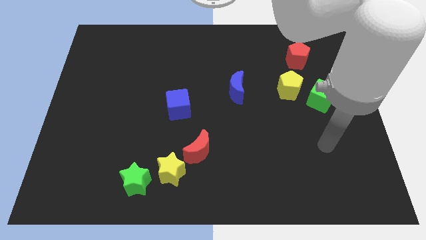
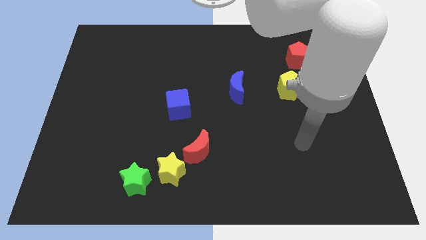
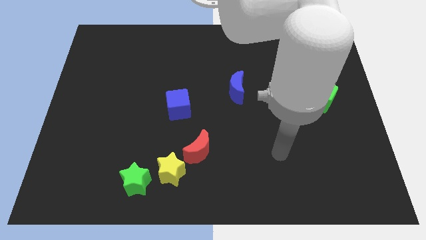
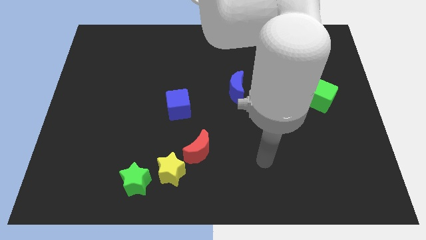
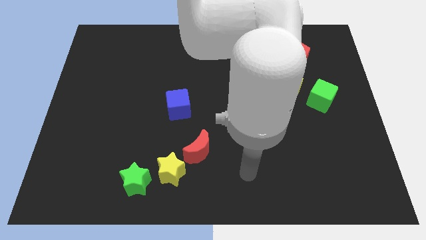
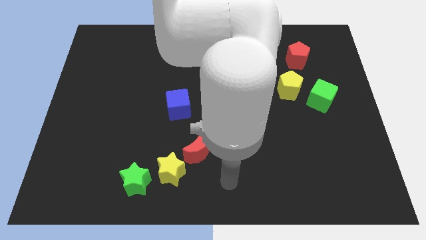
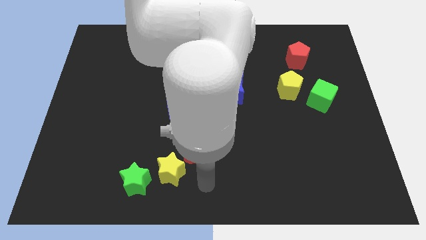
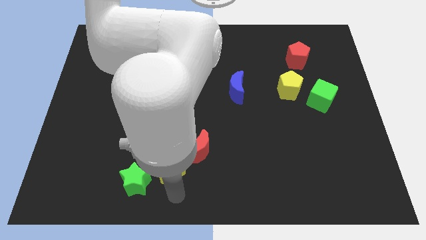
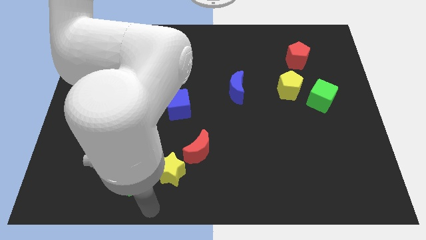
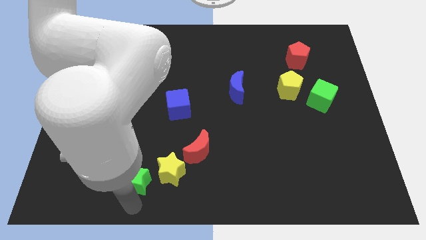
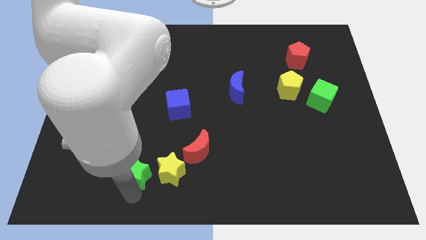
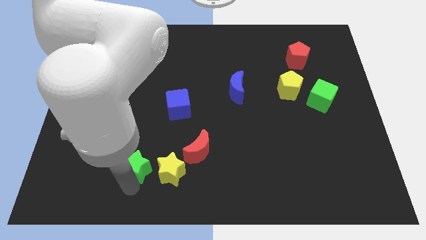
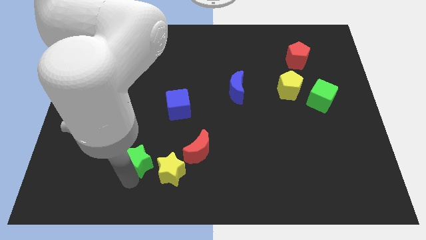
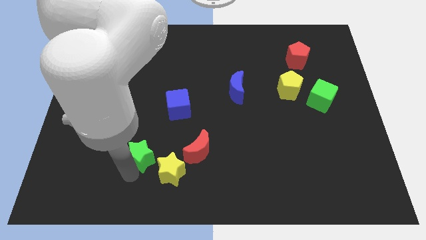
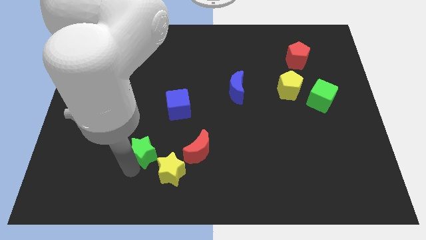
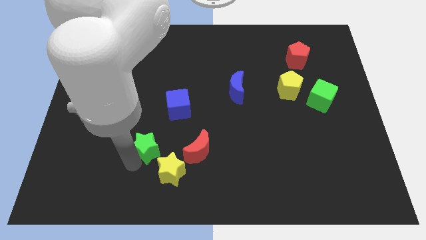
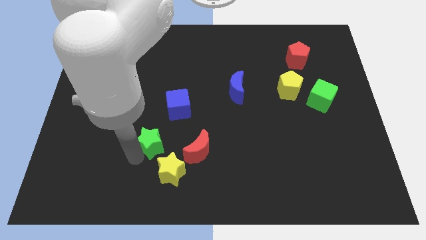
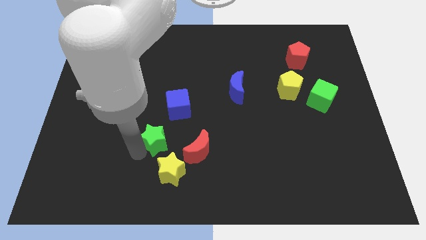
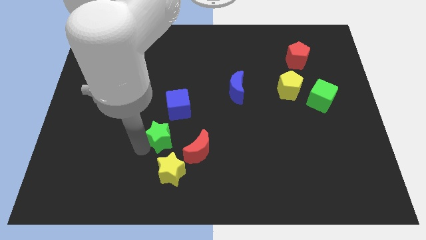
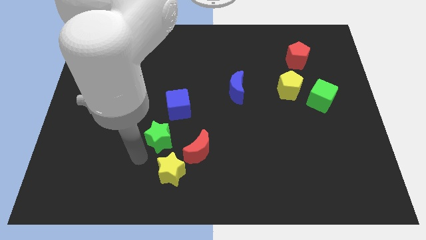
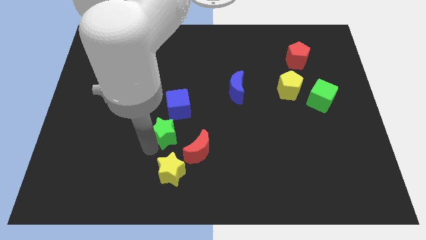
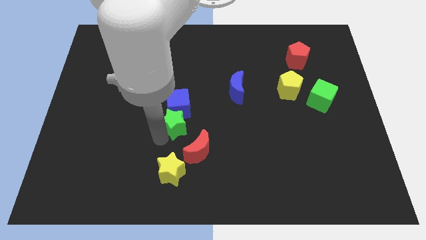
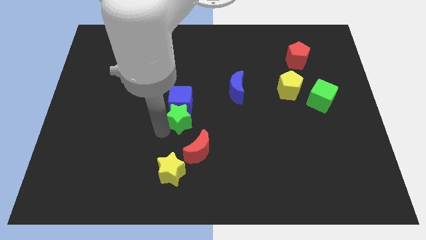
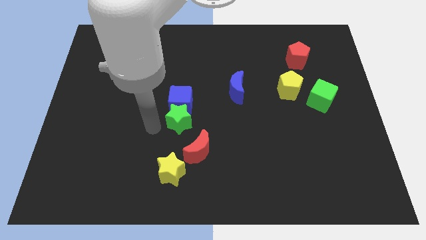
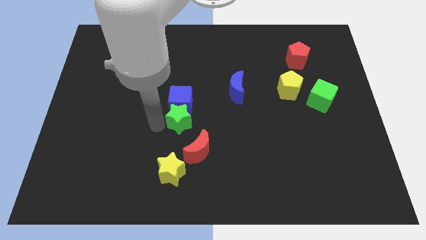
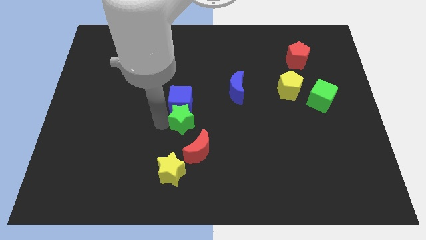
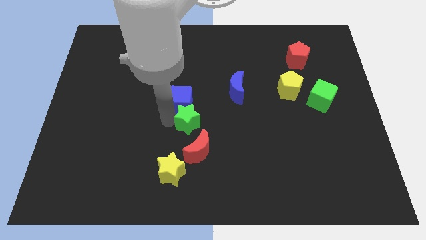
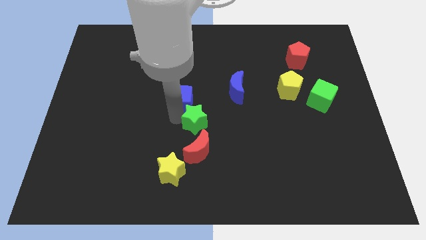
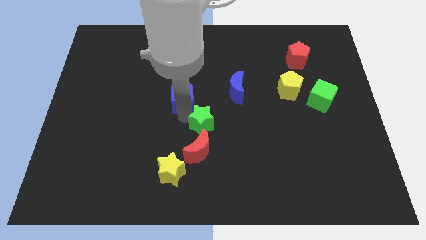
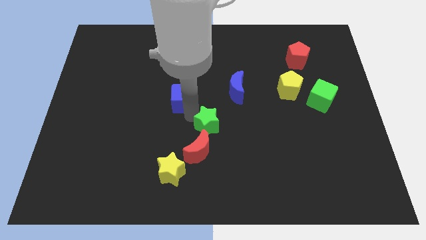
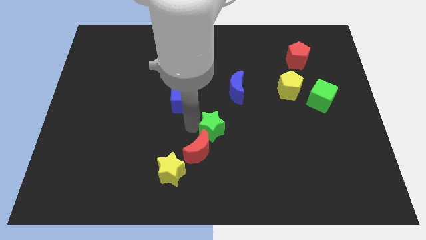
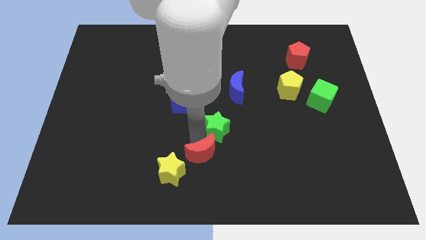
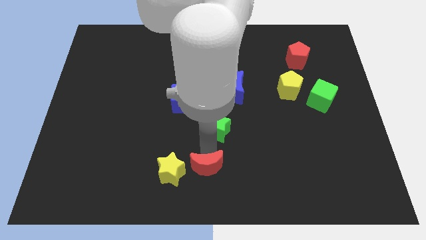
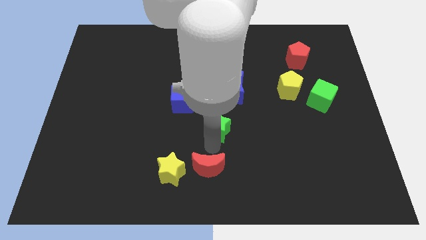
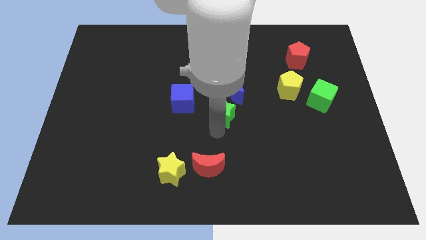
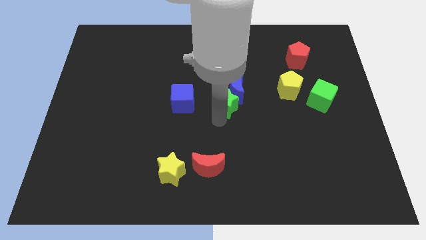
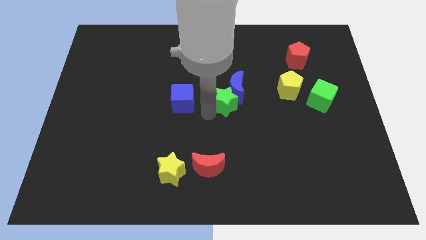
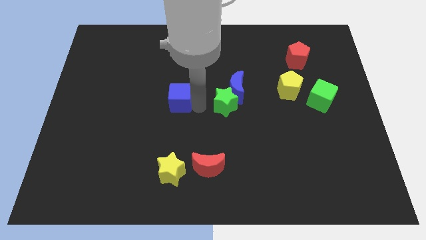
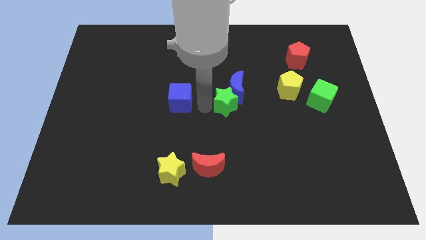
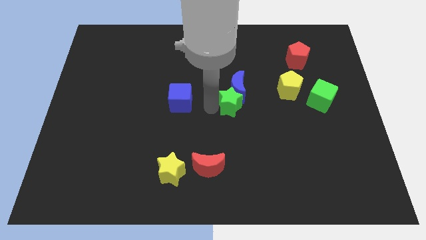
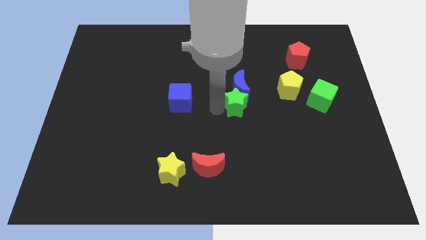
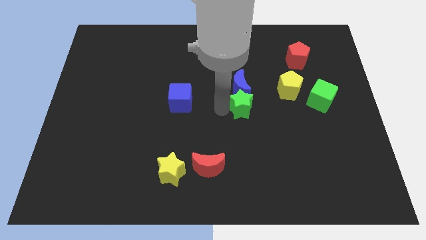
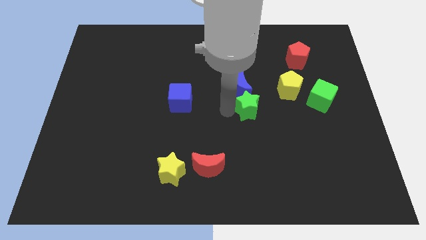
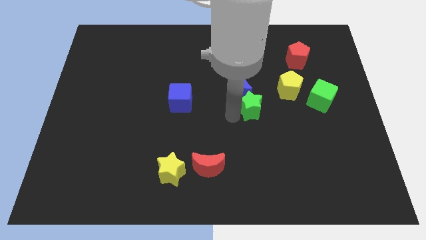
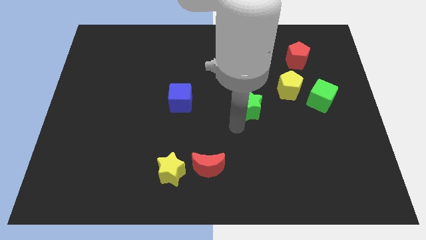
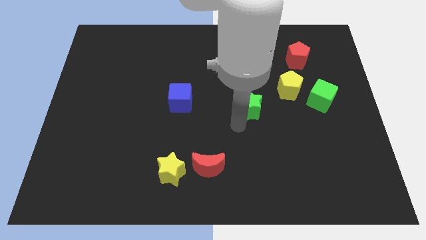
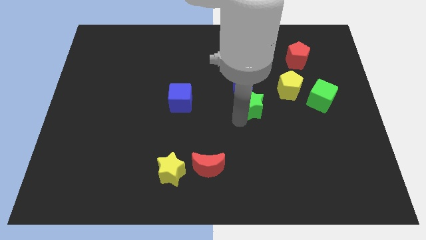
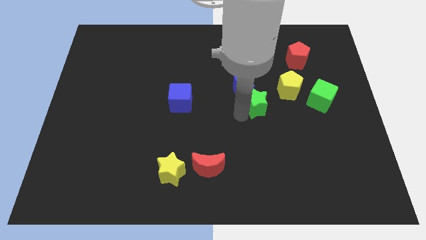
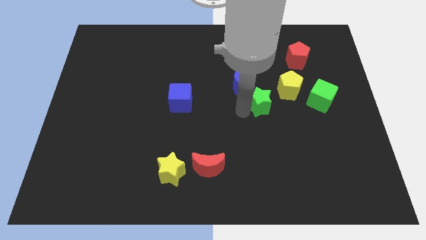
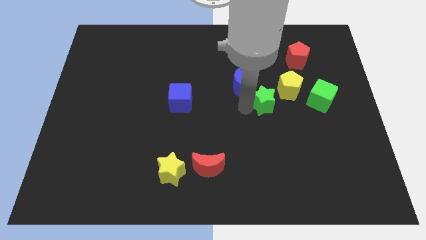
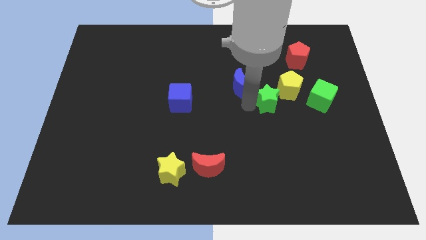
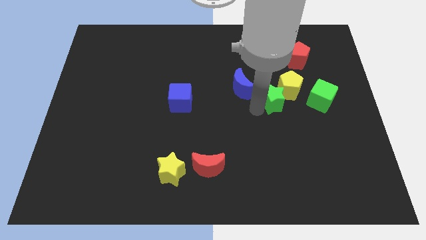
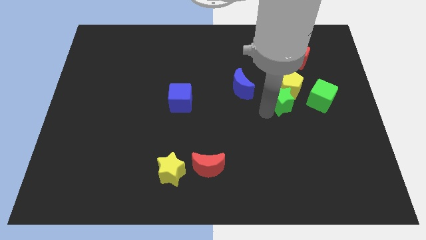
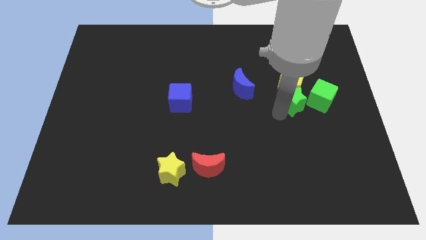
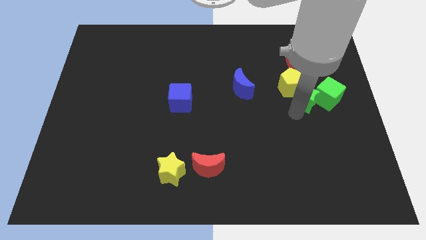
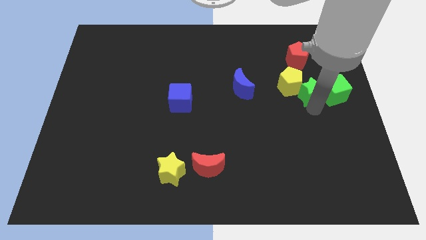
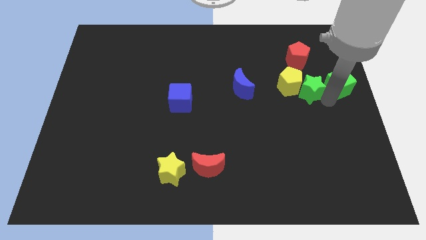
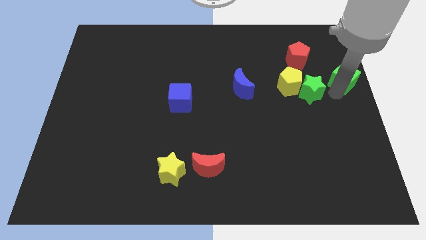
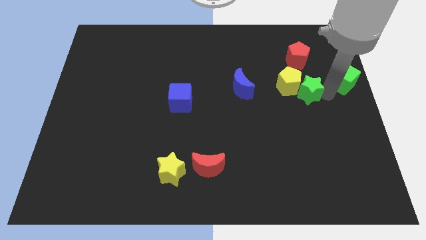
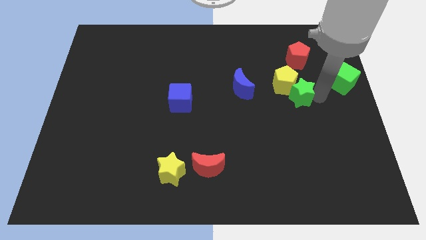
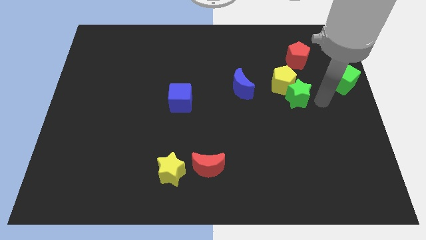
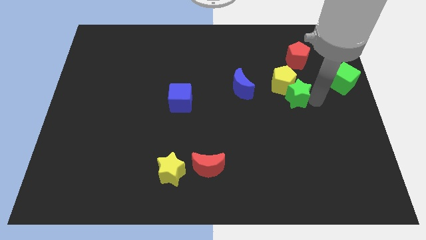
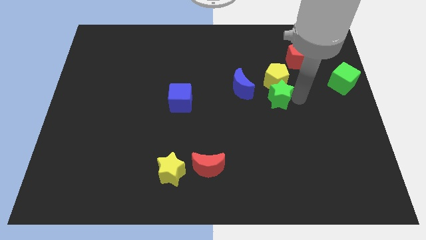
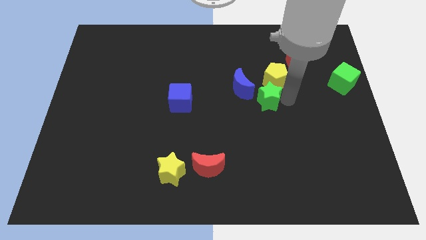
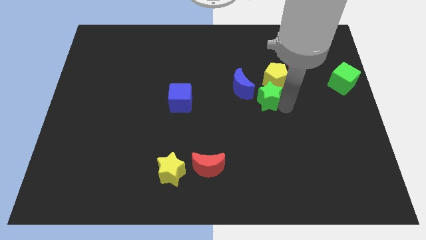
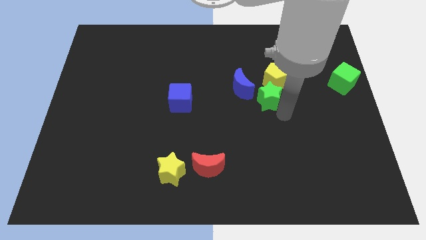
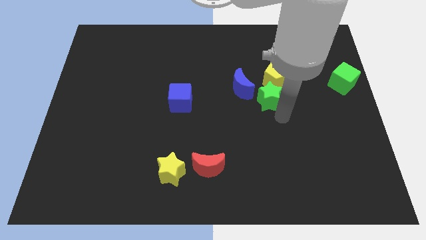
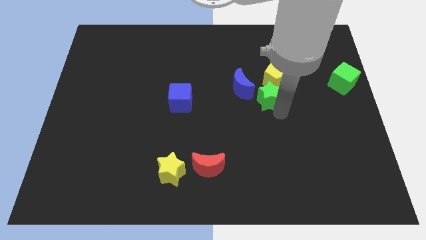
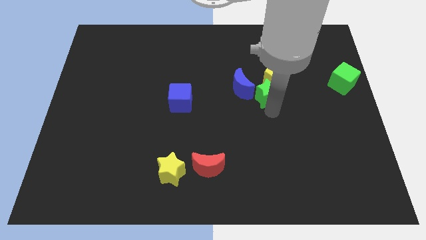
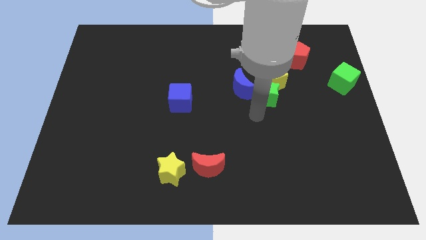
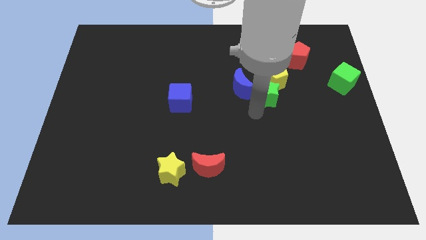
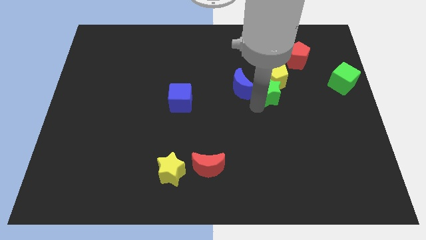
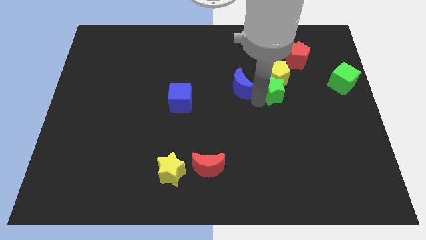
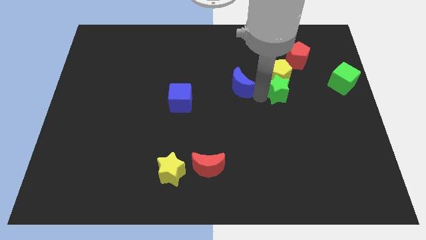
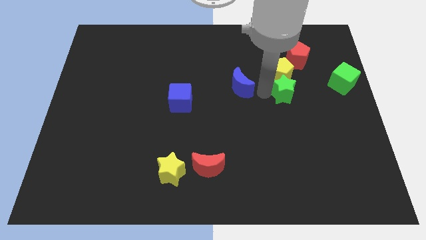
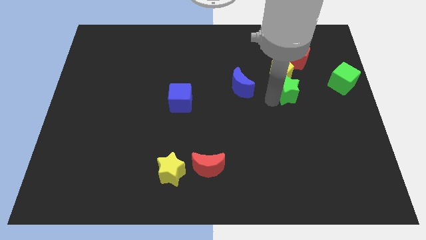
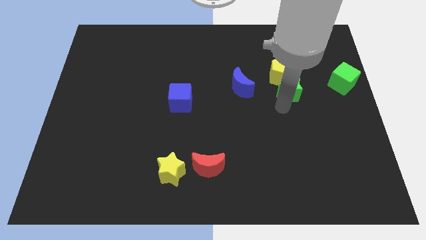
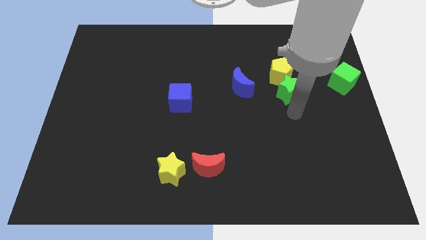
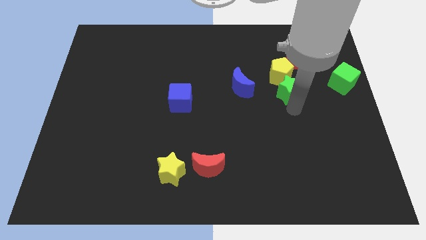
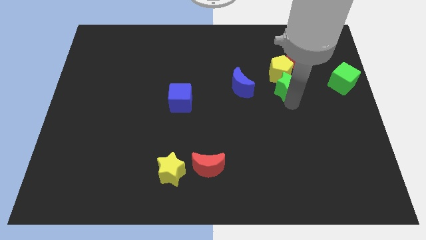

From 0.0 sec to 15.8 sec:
push the green star diagonally down and to the left of the red pentagon
